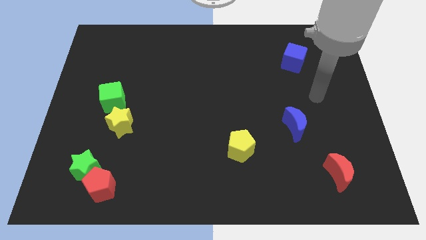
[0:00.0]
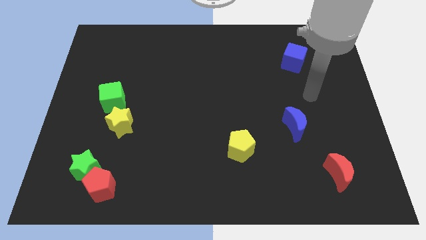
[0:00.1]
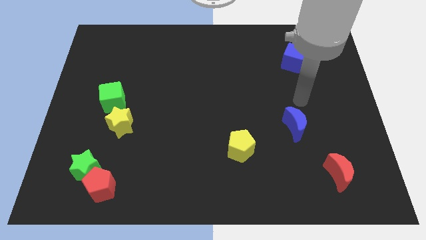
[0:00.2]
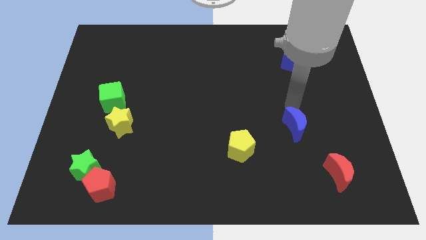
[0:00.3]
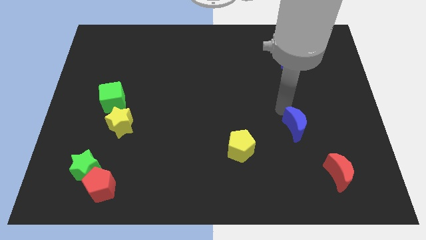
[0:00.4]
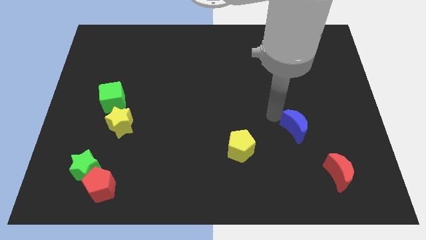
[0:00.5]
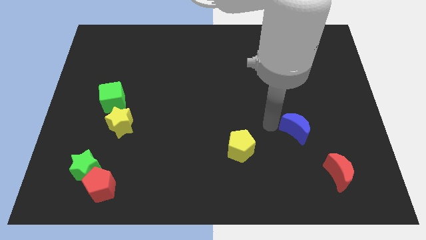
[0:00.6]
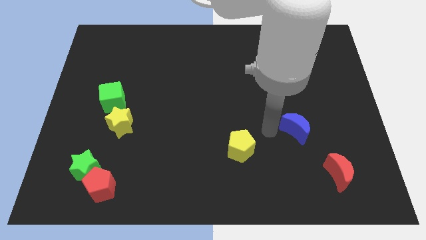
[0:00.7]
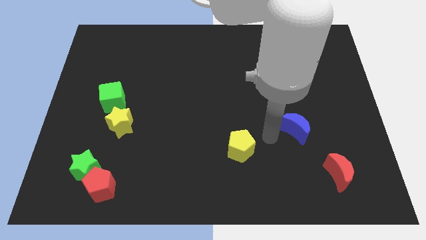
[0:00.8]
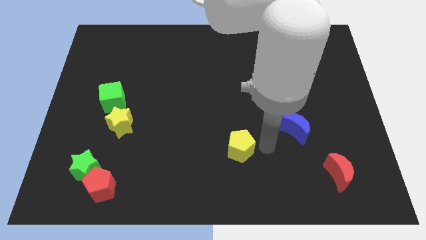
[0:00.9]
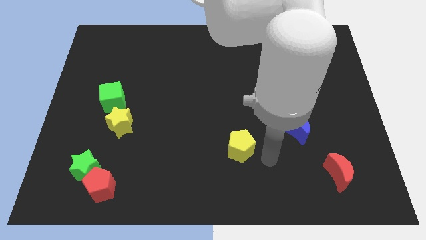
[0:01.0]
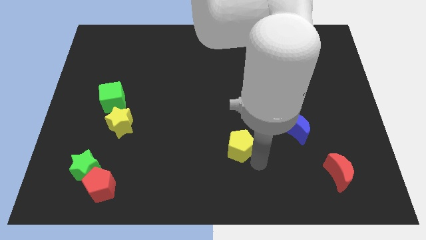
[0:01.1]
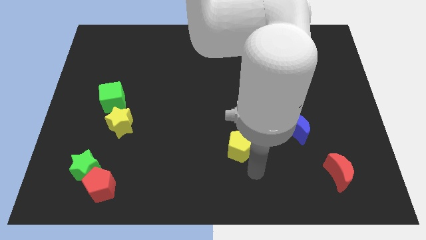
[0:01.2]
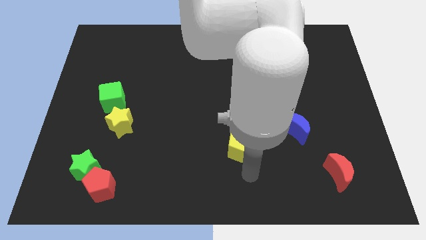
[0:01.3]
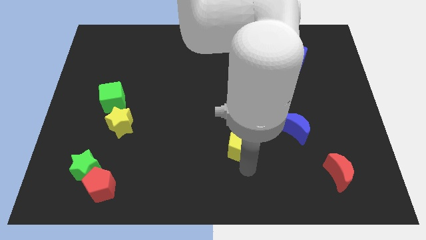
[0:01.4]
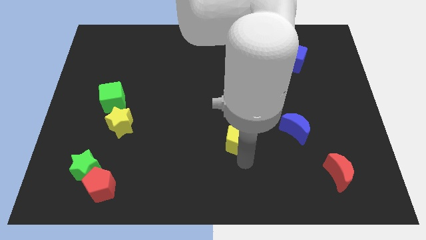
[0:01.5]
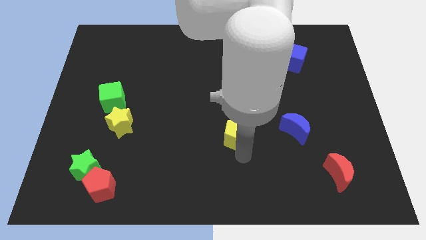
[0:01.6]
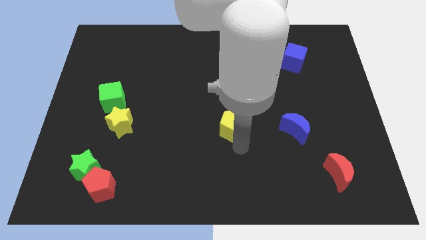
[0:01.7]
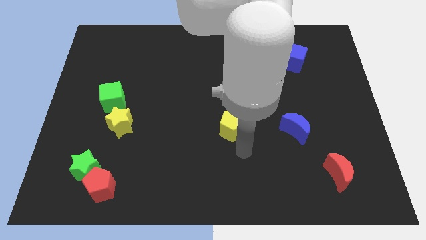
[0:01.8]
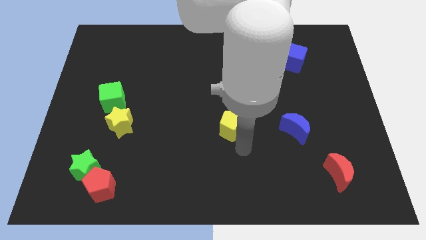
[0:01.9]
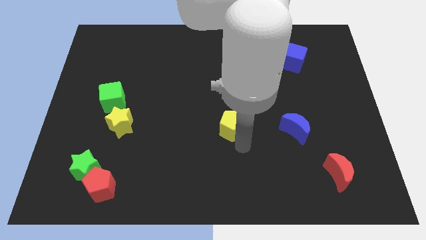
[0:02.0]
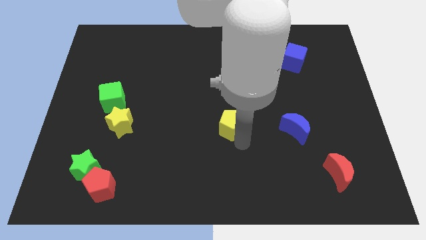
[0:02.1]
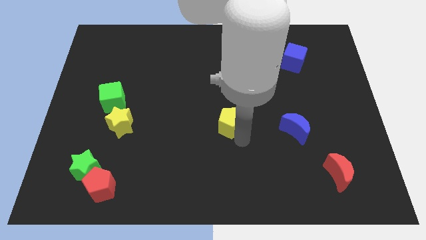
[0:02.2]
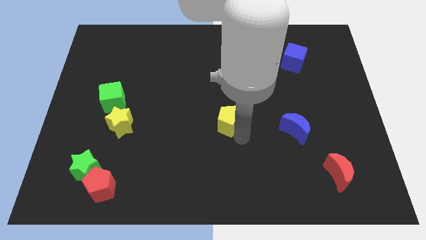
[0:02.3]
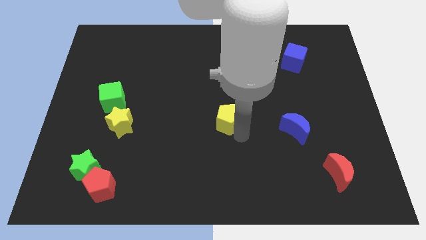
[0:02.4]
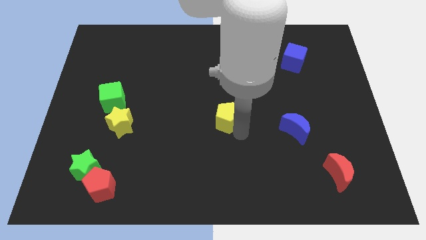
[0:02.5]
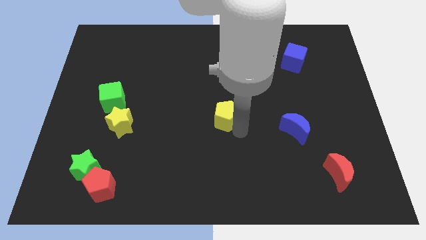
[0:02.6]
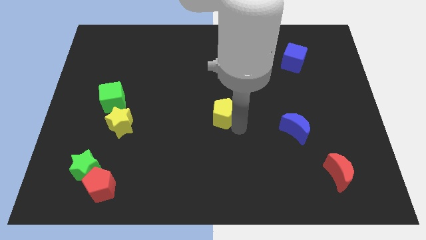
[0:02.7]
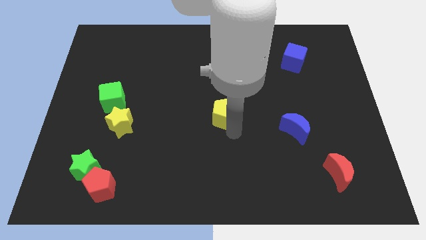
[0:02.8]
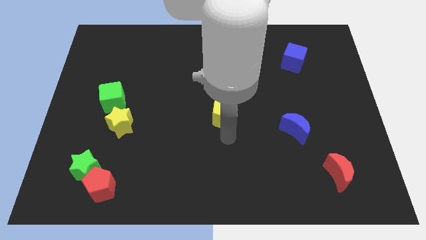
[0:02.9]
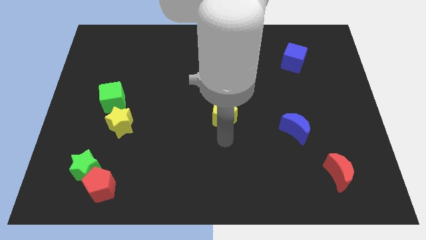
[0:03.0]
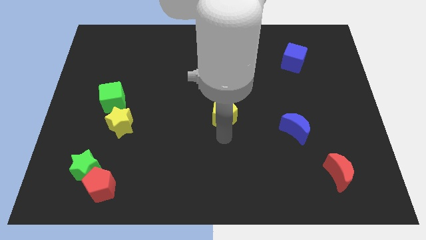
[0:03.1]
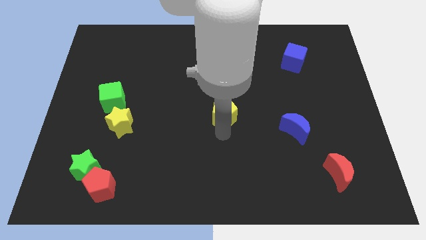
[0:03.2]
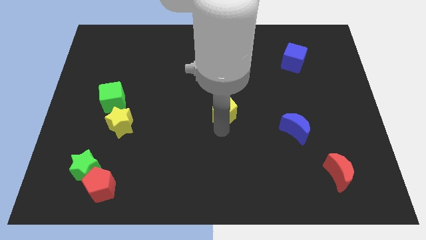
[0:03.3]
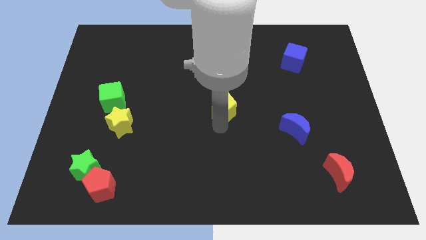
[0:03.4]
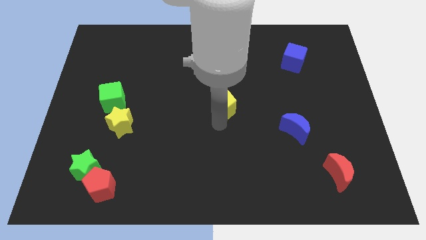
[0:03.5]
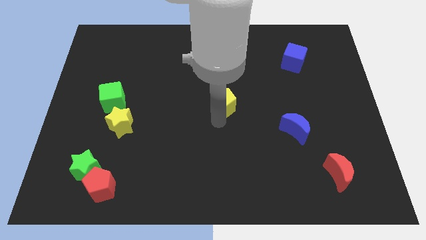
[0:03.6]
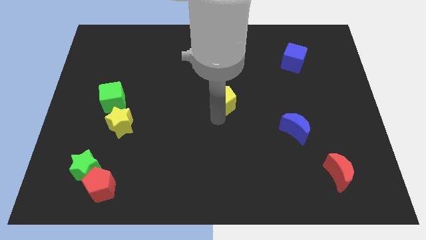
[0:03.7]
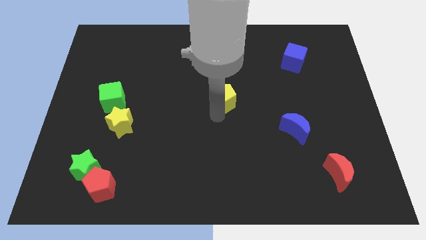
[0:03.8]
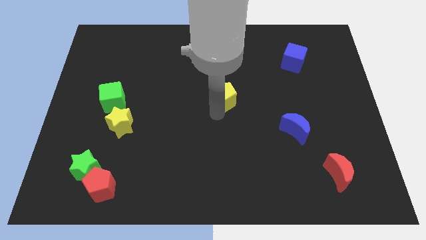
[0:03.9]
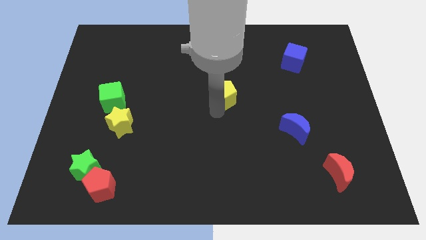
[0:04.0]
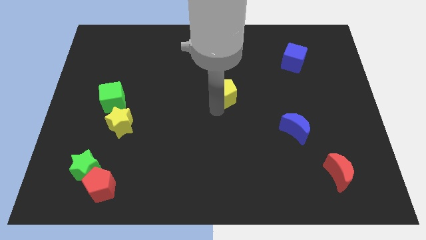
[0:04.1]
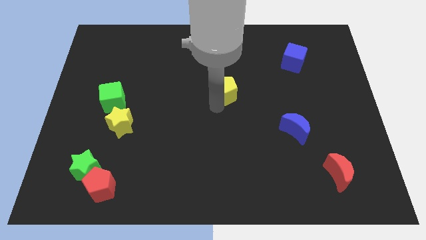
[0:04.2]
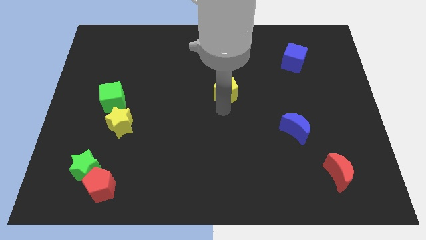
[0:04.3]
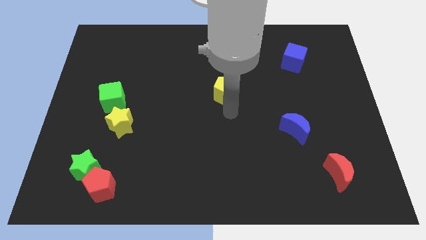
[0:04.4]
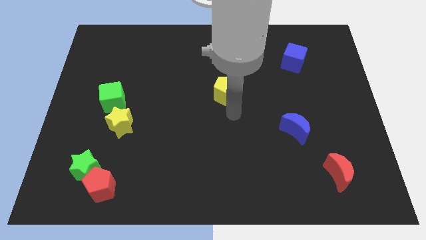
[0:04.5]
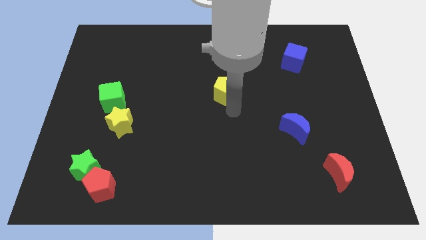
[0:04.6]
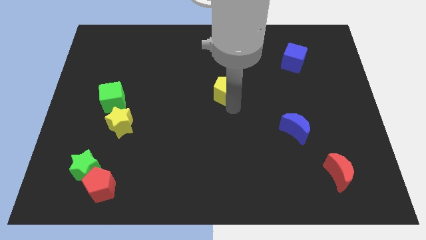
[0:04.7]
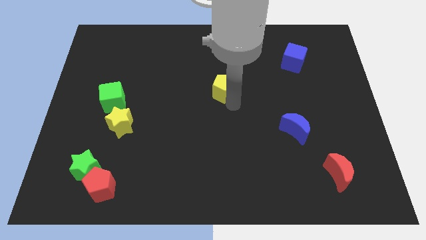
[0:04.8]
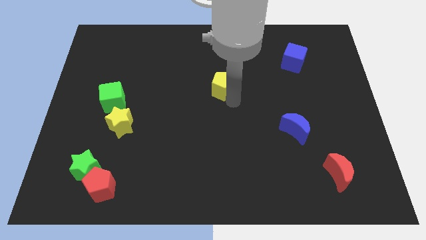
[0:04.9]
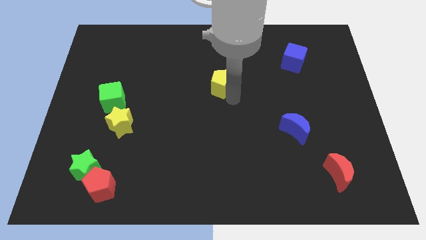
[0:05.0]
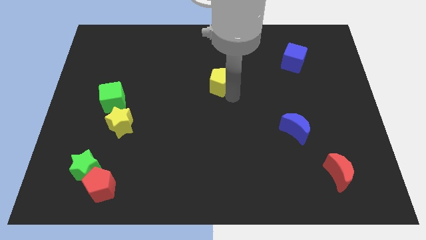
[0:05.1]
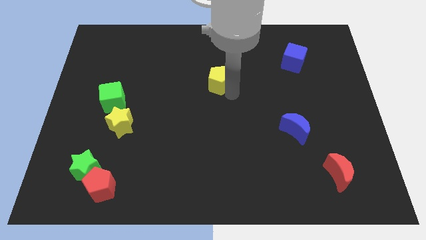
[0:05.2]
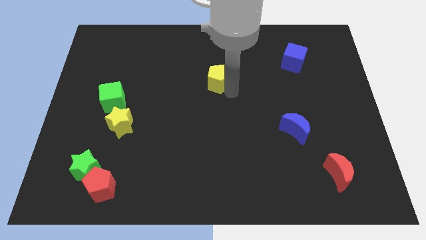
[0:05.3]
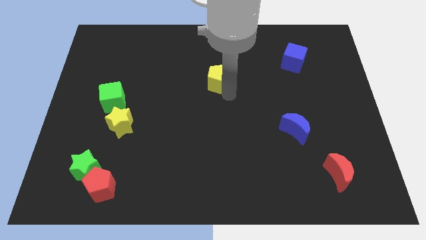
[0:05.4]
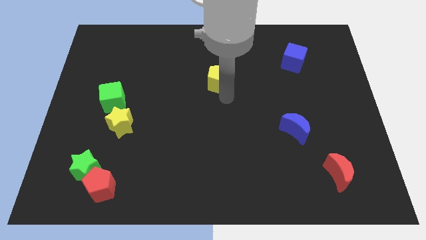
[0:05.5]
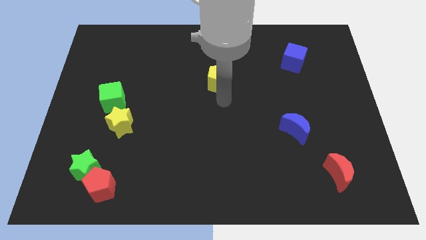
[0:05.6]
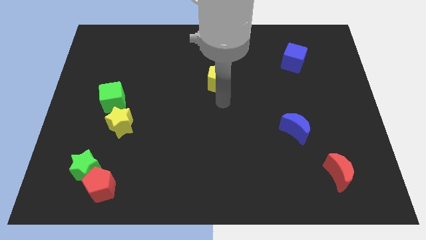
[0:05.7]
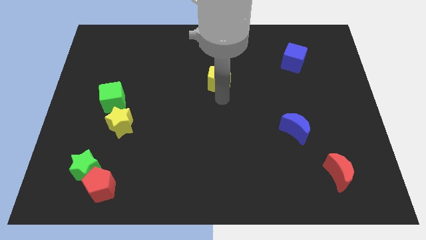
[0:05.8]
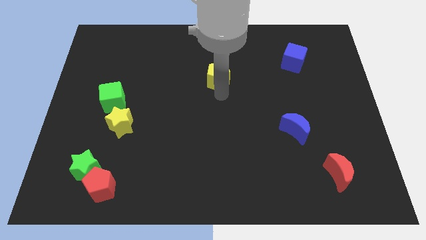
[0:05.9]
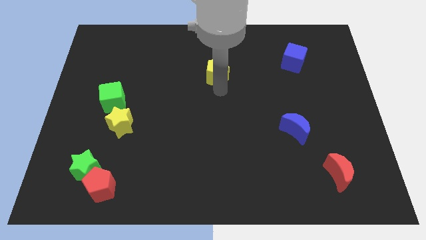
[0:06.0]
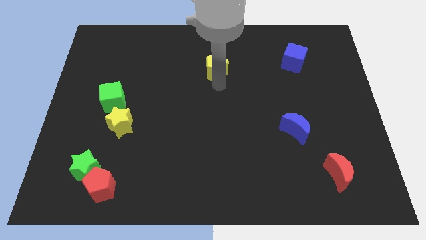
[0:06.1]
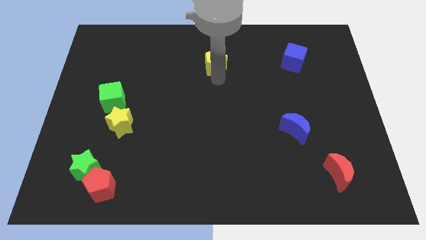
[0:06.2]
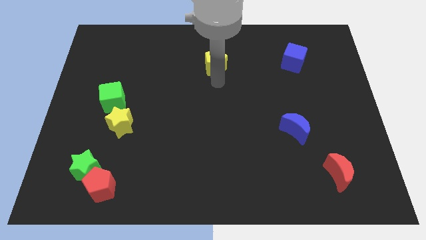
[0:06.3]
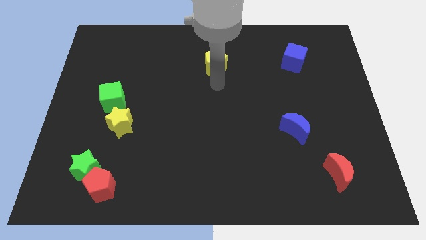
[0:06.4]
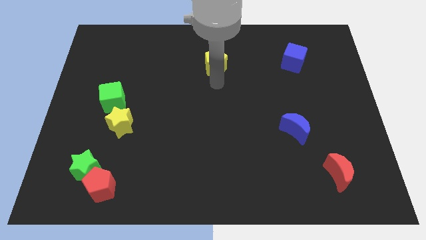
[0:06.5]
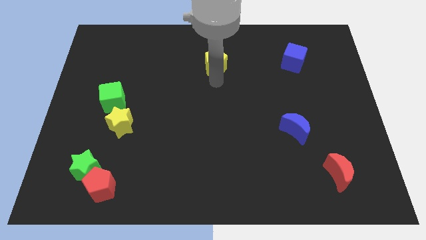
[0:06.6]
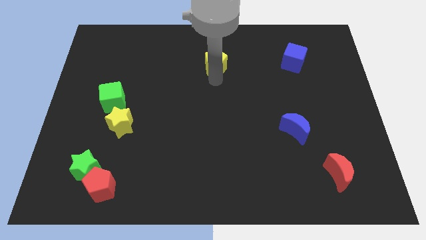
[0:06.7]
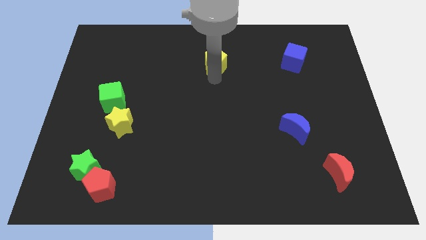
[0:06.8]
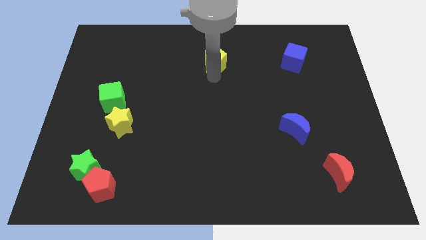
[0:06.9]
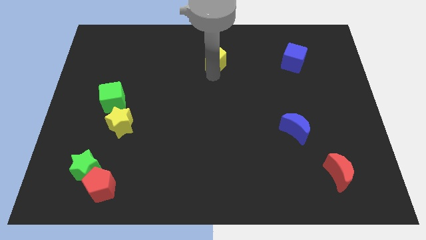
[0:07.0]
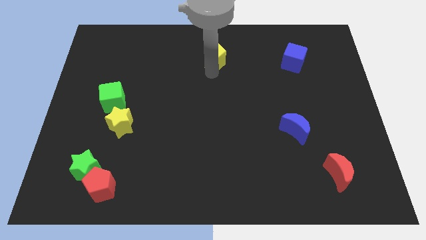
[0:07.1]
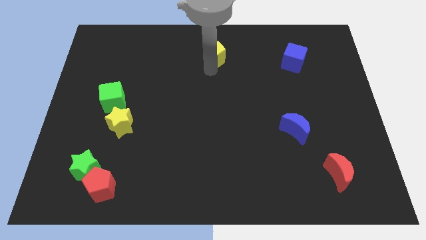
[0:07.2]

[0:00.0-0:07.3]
put the yellow pentagon to the top

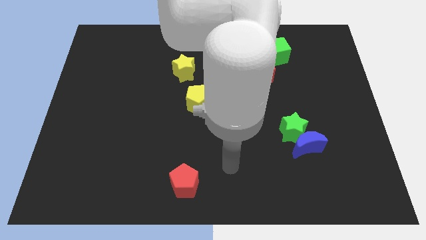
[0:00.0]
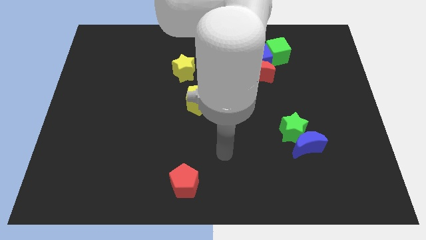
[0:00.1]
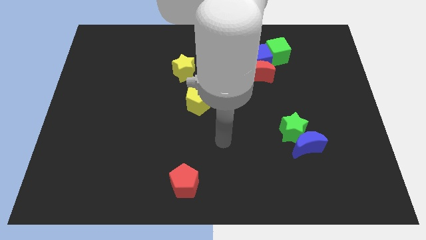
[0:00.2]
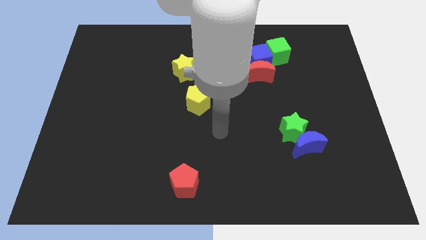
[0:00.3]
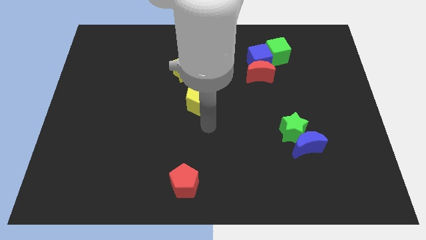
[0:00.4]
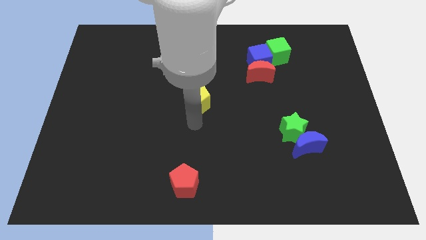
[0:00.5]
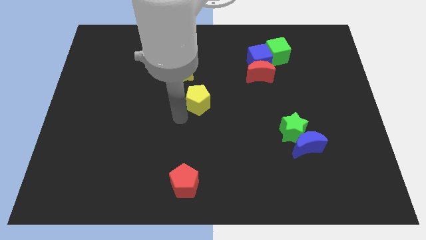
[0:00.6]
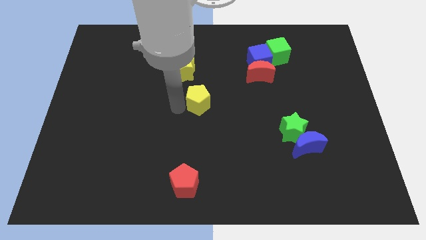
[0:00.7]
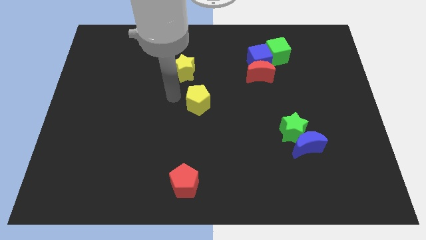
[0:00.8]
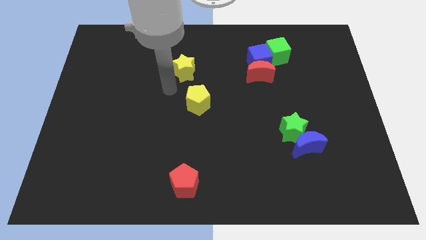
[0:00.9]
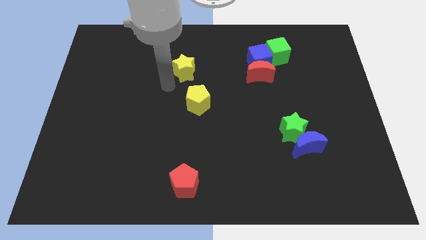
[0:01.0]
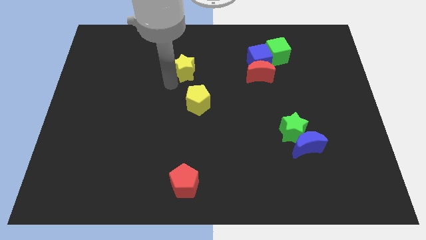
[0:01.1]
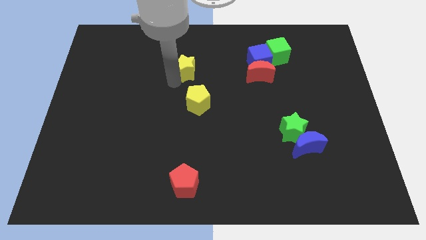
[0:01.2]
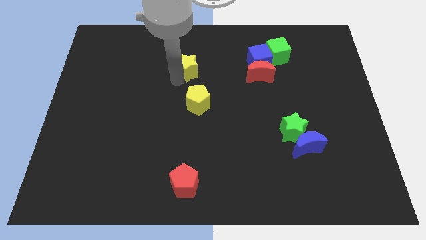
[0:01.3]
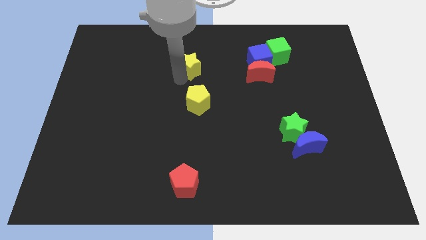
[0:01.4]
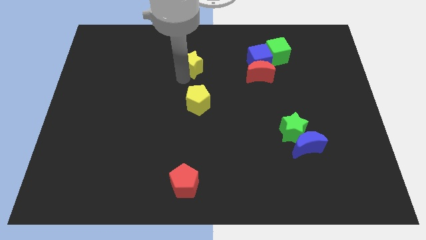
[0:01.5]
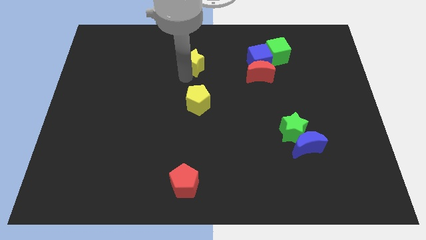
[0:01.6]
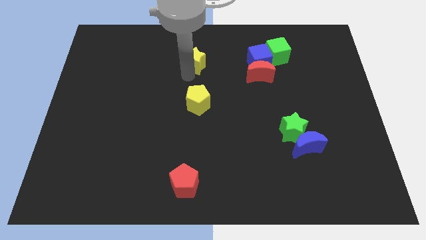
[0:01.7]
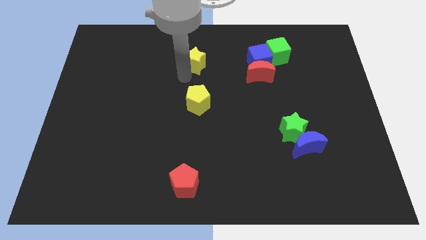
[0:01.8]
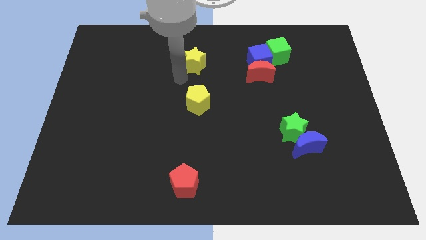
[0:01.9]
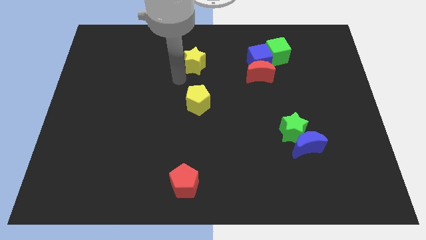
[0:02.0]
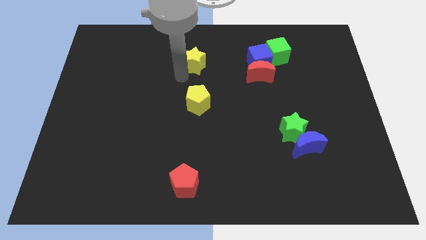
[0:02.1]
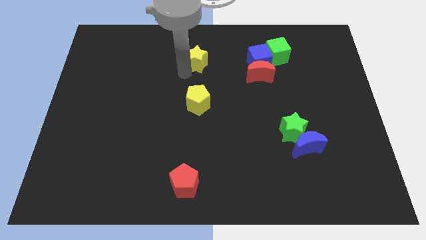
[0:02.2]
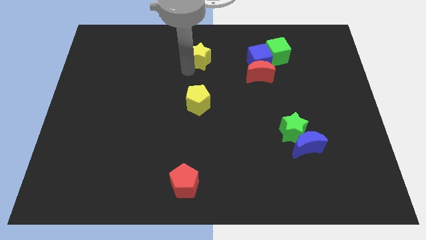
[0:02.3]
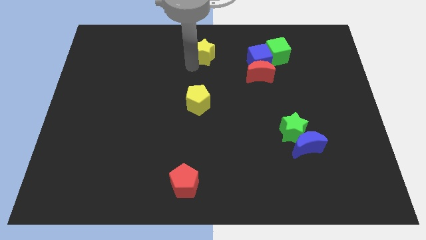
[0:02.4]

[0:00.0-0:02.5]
move the yellow star to the towards your base
